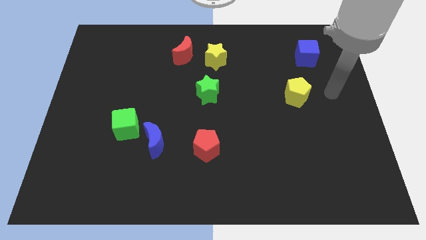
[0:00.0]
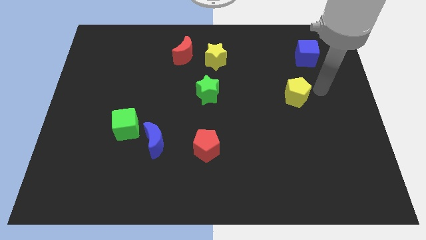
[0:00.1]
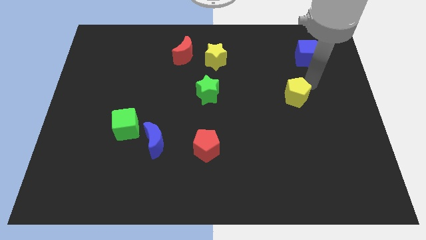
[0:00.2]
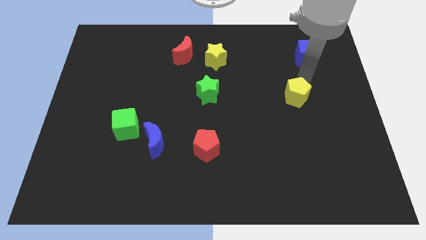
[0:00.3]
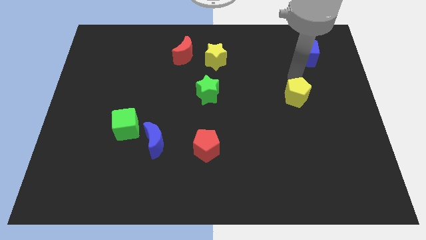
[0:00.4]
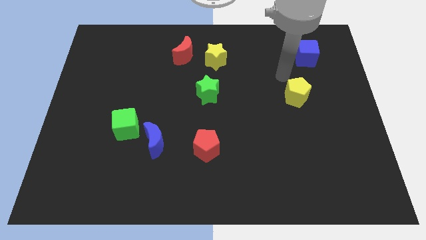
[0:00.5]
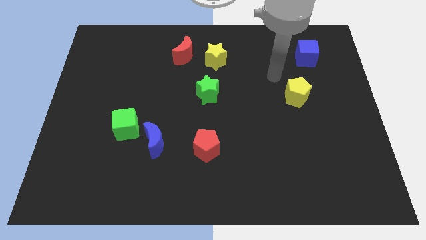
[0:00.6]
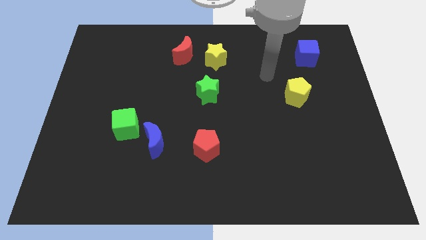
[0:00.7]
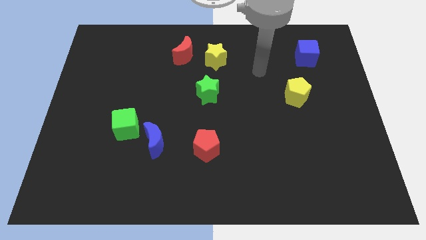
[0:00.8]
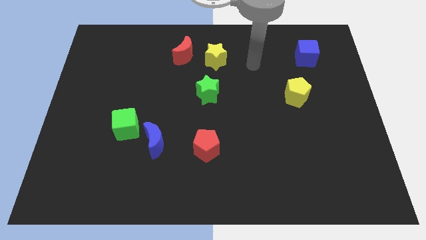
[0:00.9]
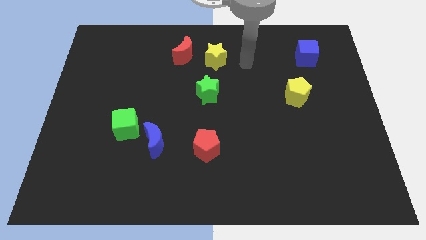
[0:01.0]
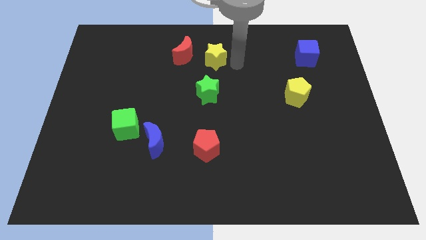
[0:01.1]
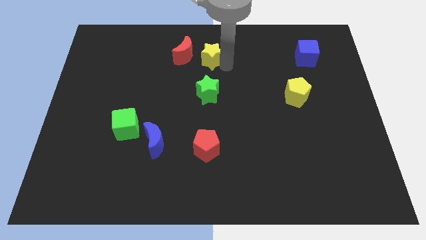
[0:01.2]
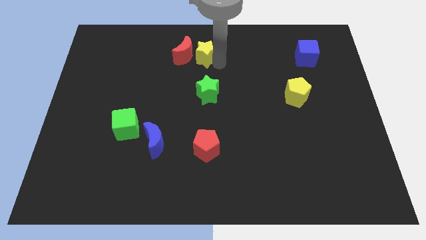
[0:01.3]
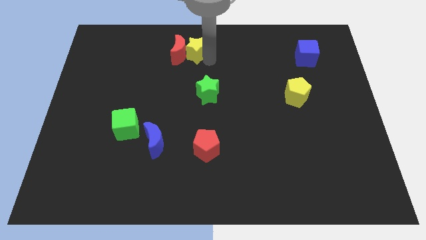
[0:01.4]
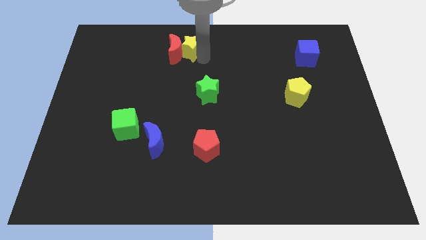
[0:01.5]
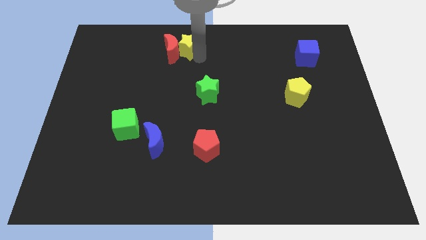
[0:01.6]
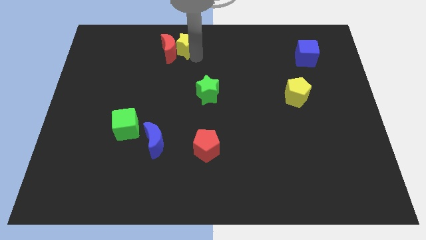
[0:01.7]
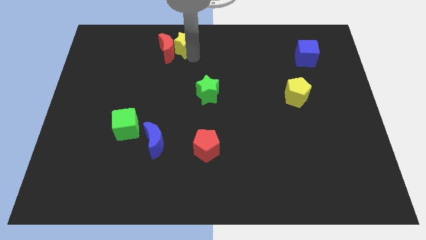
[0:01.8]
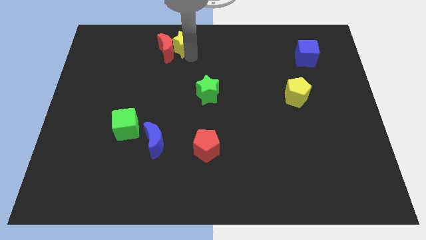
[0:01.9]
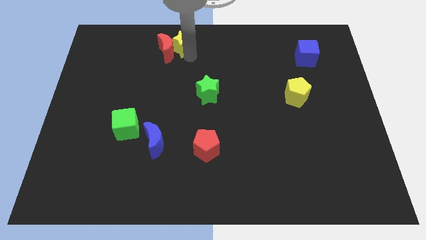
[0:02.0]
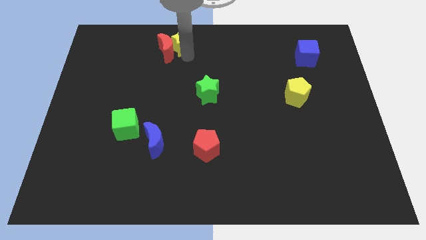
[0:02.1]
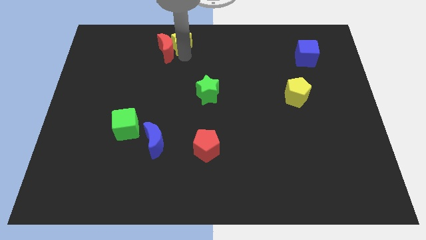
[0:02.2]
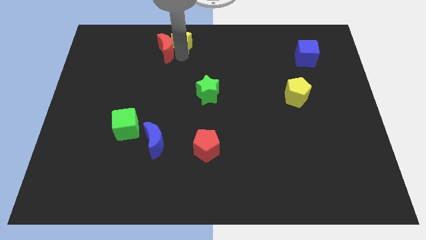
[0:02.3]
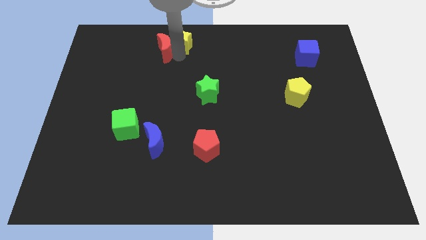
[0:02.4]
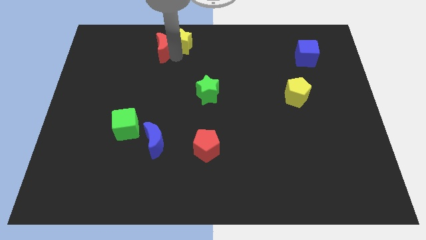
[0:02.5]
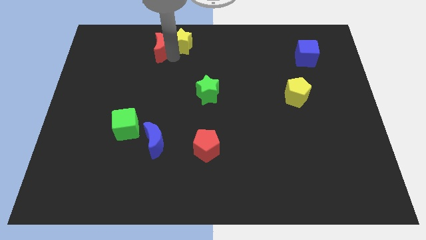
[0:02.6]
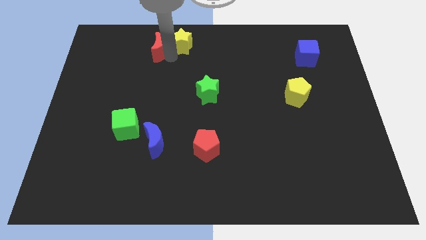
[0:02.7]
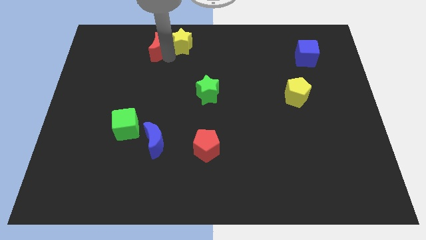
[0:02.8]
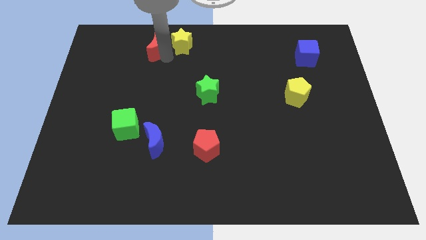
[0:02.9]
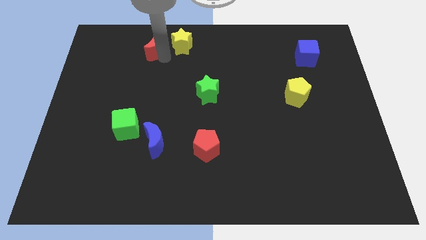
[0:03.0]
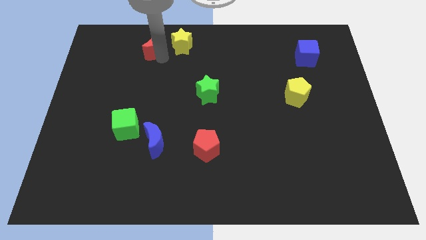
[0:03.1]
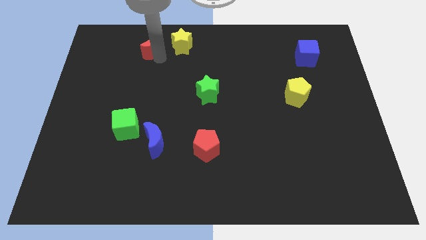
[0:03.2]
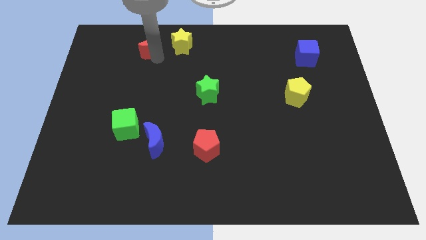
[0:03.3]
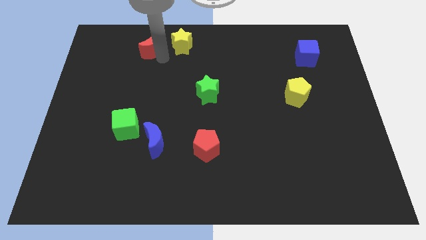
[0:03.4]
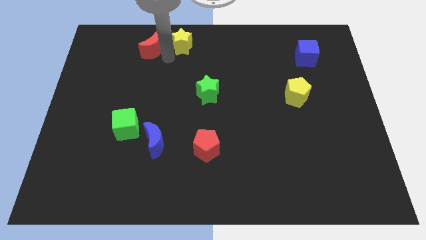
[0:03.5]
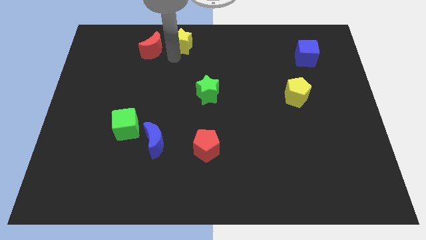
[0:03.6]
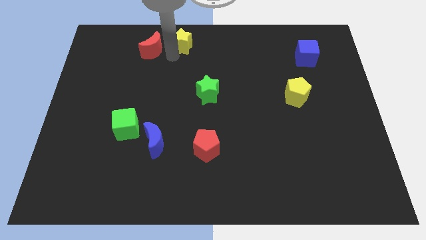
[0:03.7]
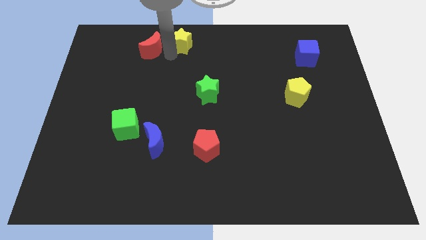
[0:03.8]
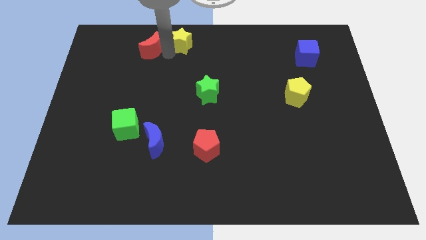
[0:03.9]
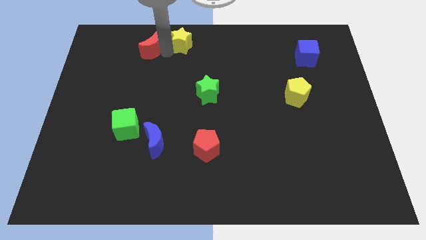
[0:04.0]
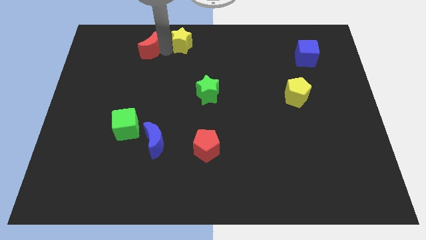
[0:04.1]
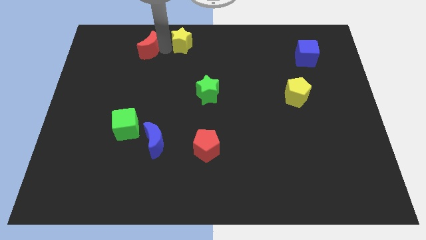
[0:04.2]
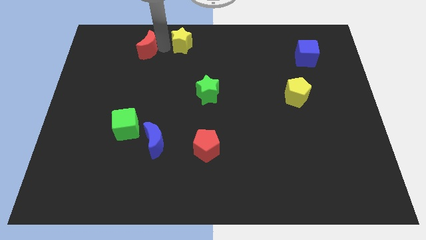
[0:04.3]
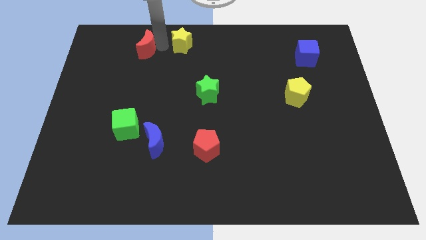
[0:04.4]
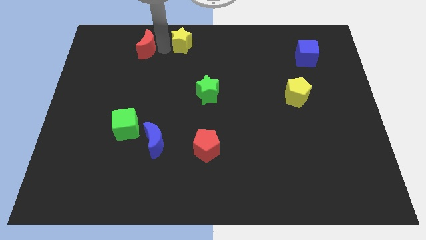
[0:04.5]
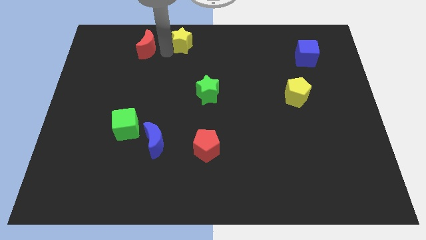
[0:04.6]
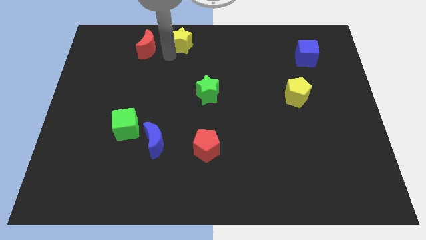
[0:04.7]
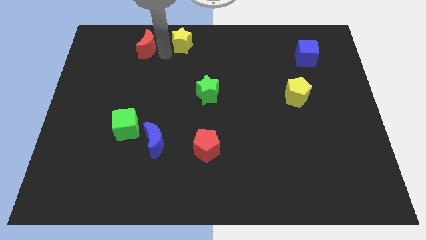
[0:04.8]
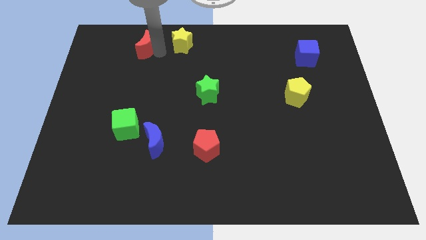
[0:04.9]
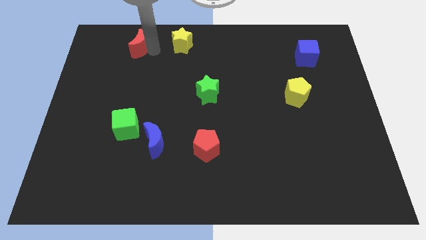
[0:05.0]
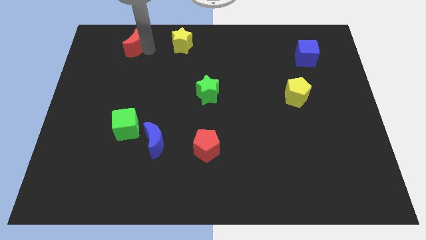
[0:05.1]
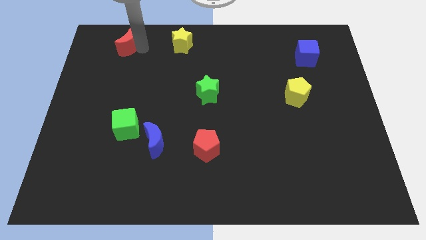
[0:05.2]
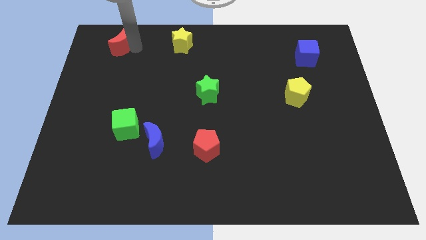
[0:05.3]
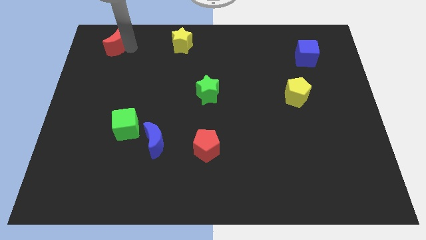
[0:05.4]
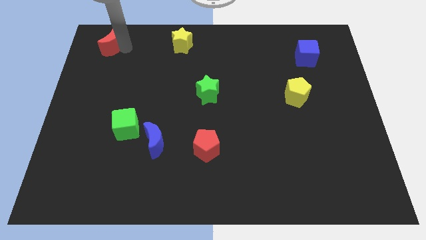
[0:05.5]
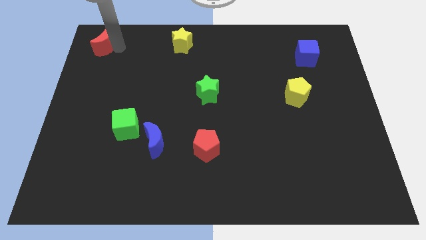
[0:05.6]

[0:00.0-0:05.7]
push the red moon to the top left of the board

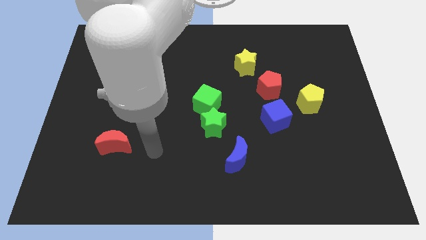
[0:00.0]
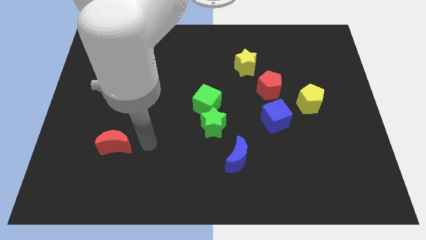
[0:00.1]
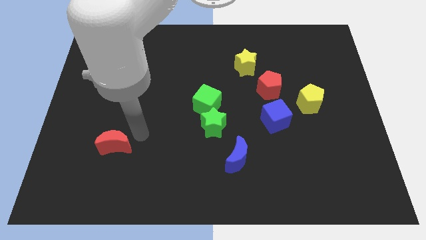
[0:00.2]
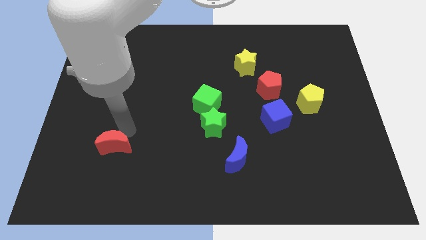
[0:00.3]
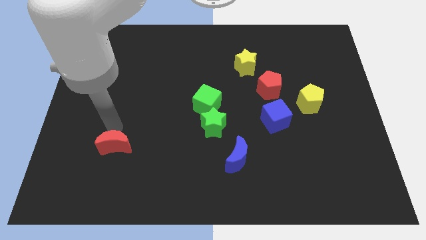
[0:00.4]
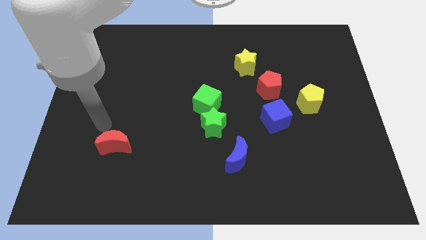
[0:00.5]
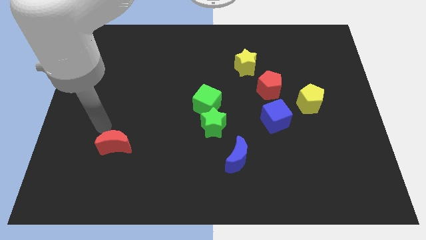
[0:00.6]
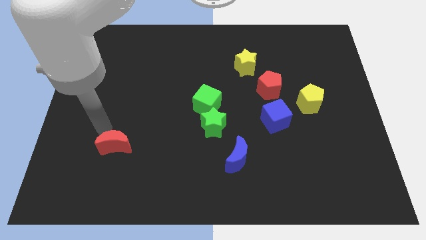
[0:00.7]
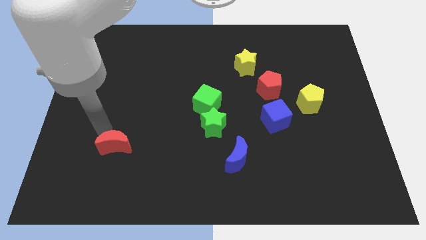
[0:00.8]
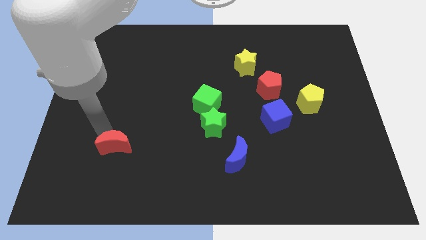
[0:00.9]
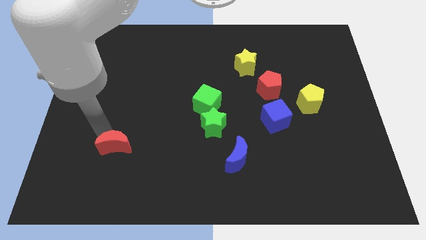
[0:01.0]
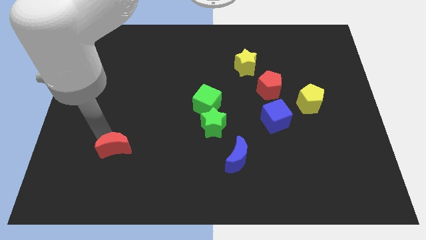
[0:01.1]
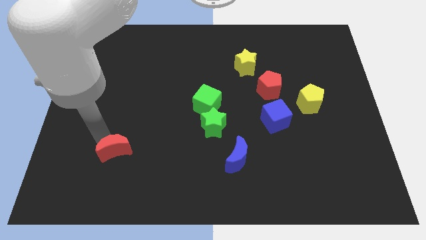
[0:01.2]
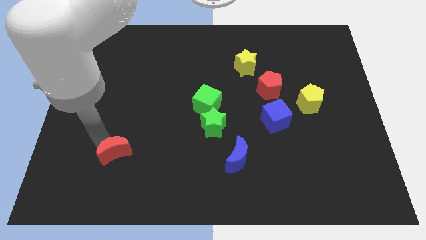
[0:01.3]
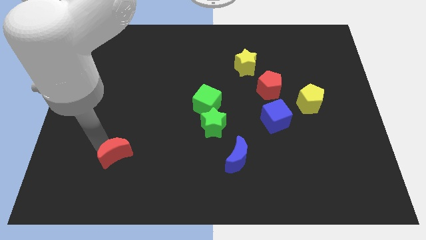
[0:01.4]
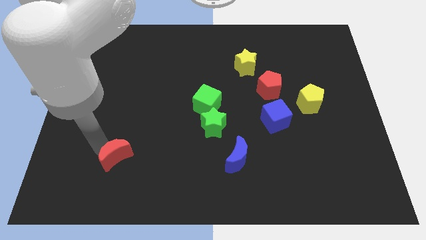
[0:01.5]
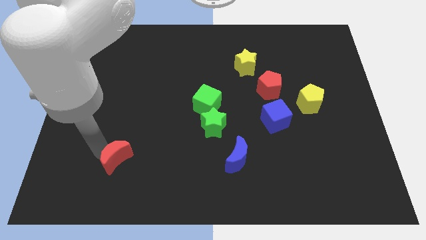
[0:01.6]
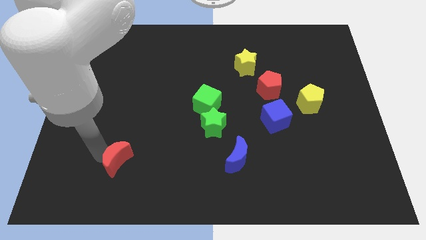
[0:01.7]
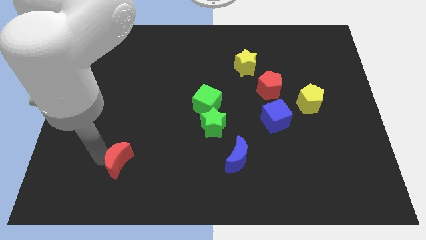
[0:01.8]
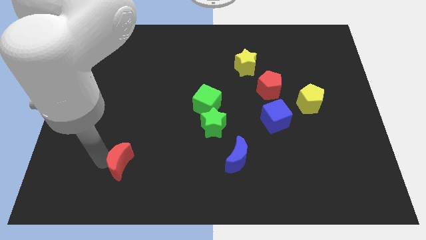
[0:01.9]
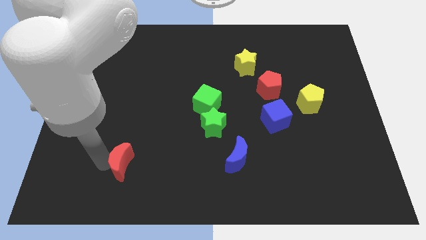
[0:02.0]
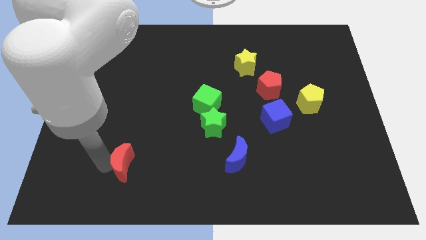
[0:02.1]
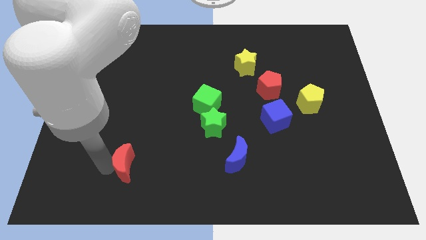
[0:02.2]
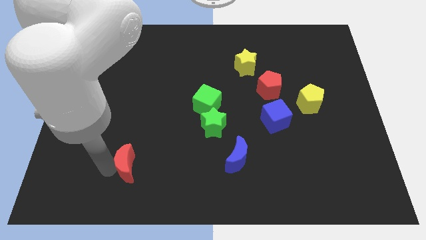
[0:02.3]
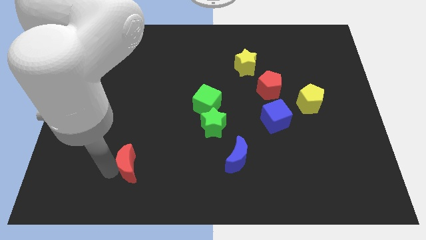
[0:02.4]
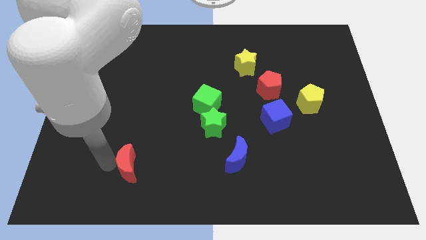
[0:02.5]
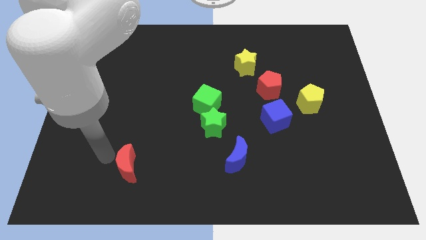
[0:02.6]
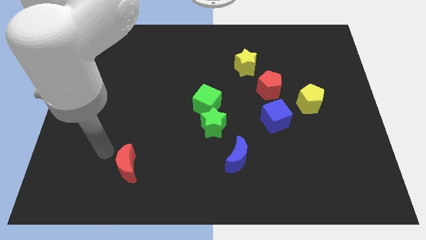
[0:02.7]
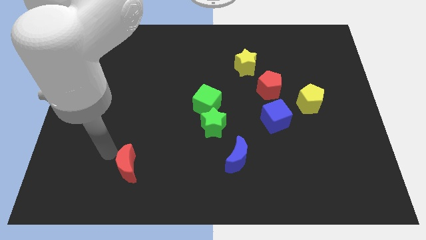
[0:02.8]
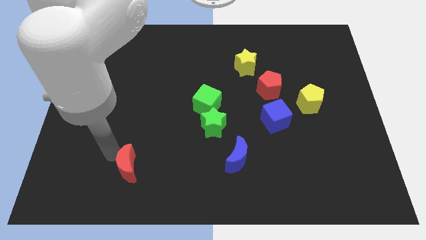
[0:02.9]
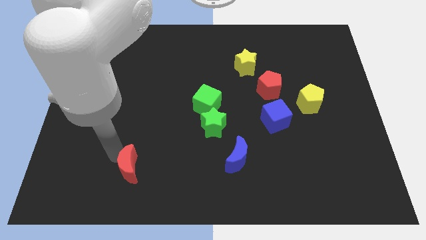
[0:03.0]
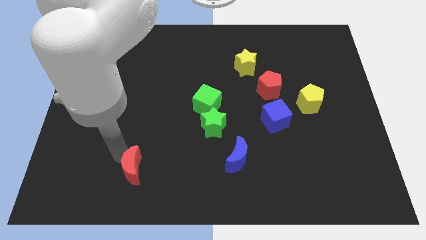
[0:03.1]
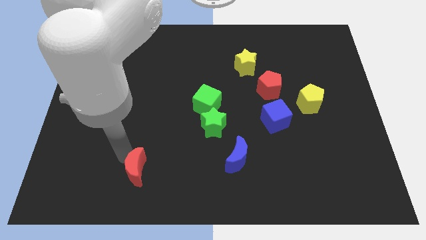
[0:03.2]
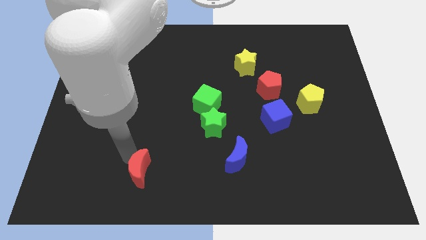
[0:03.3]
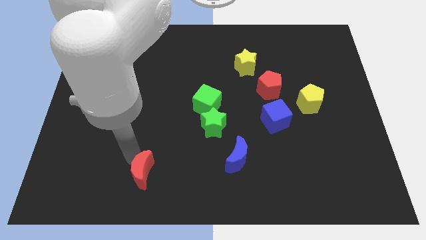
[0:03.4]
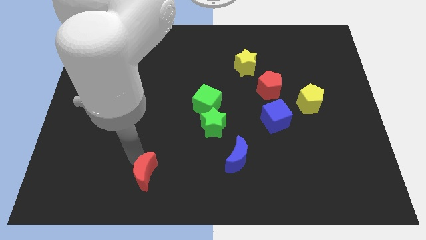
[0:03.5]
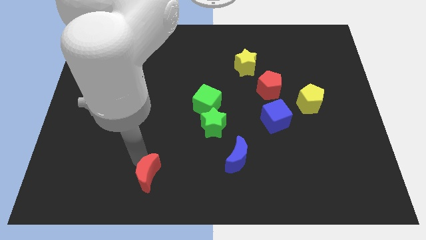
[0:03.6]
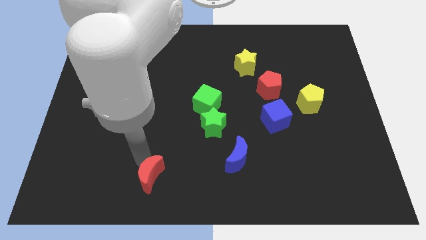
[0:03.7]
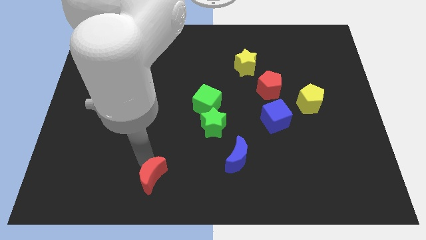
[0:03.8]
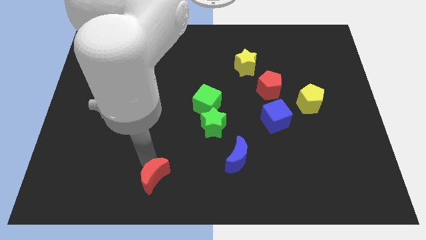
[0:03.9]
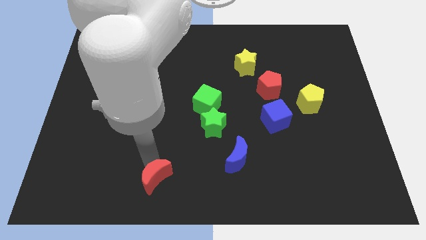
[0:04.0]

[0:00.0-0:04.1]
push the red moon to the bottom side
